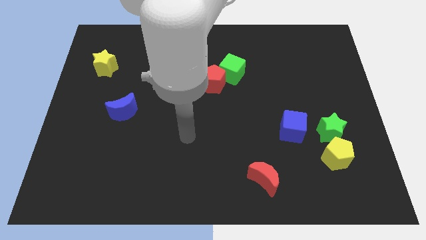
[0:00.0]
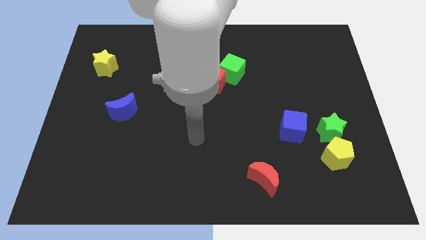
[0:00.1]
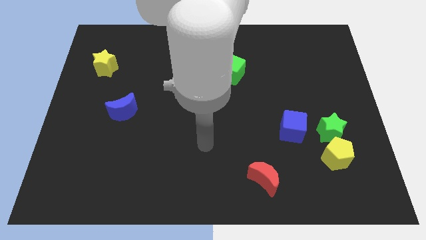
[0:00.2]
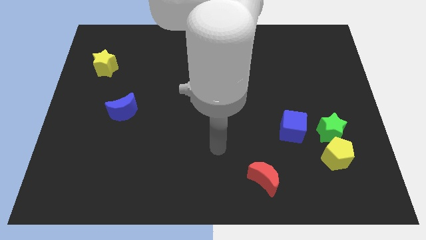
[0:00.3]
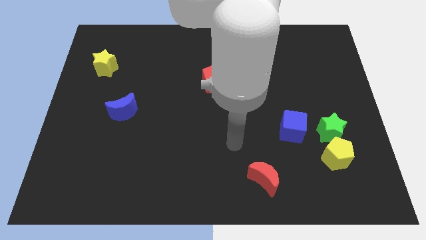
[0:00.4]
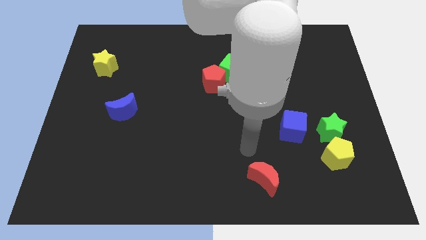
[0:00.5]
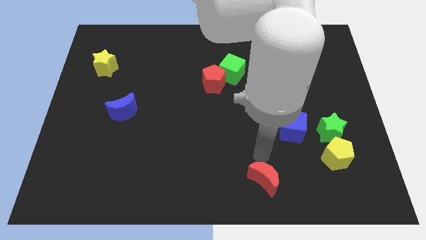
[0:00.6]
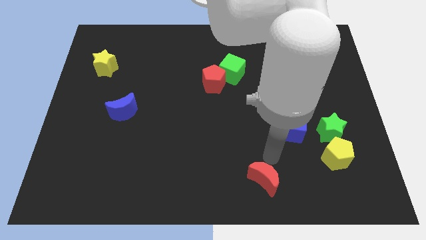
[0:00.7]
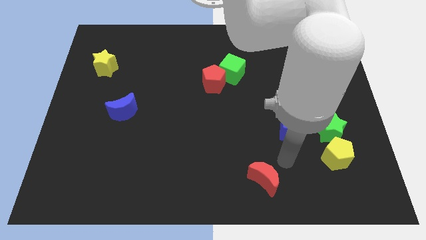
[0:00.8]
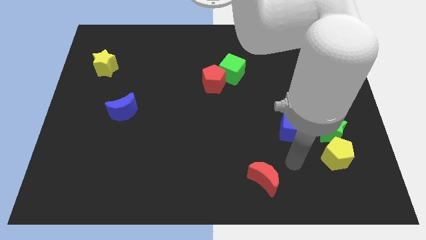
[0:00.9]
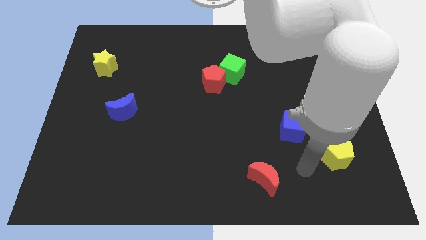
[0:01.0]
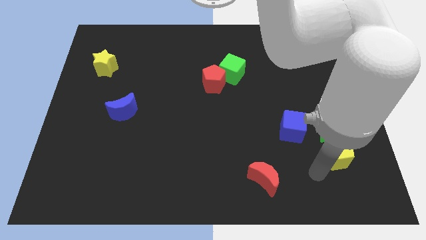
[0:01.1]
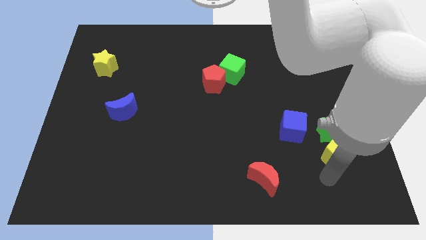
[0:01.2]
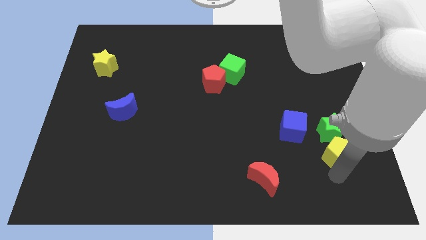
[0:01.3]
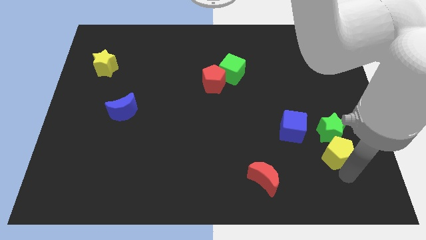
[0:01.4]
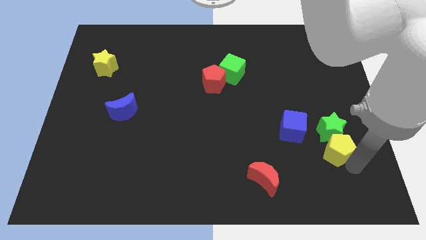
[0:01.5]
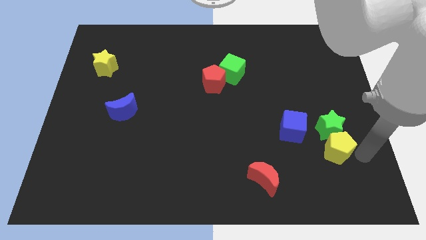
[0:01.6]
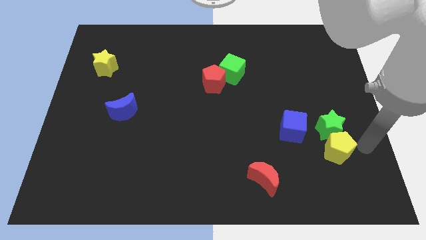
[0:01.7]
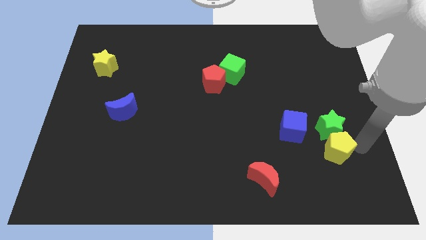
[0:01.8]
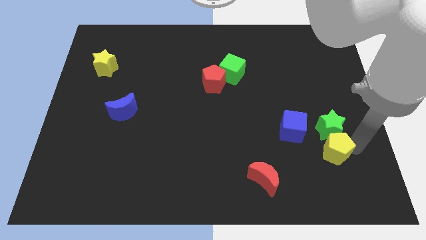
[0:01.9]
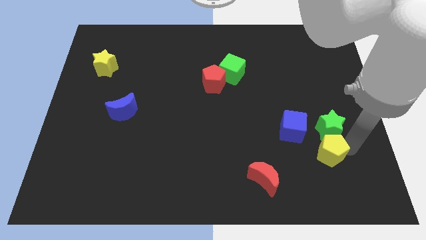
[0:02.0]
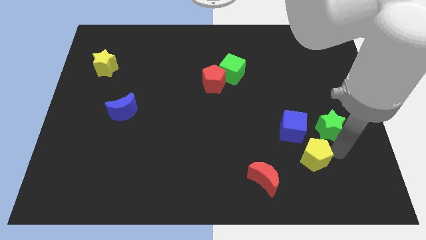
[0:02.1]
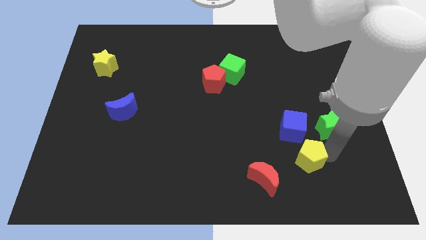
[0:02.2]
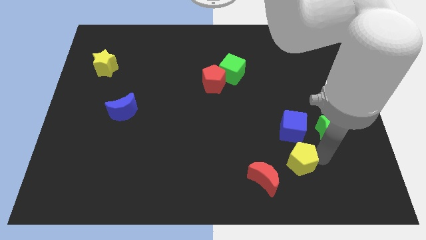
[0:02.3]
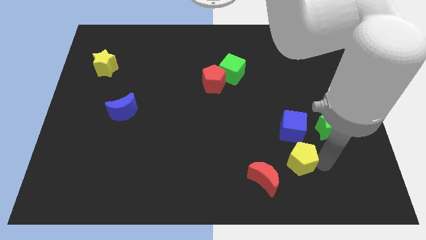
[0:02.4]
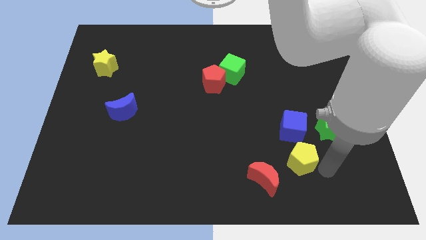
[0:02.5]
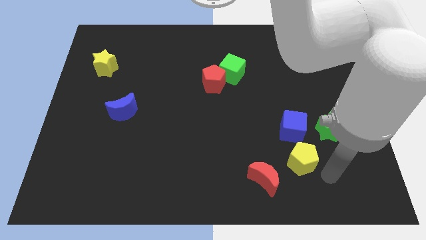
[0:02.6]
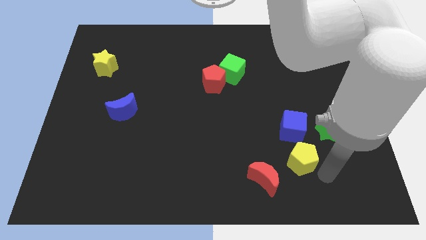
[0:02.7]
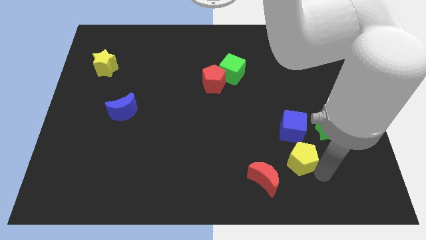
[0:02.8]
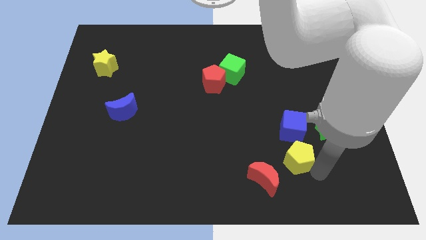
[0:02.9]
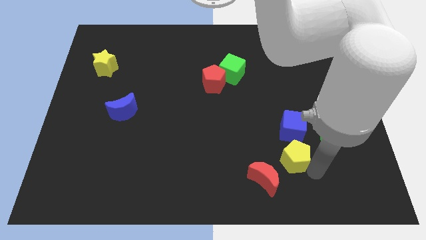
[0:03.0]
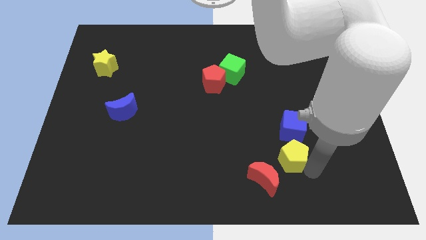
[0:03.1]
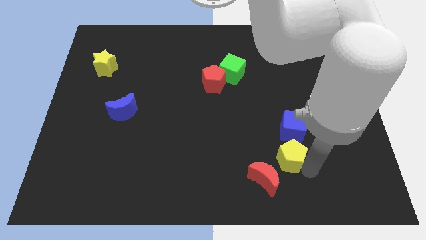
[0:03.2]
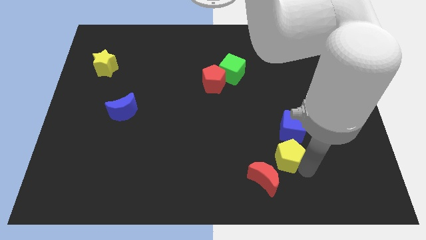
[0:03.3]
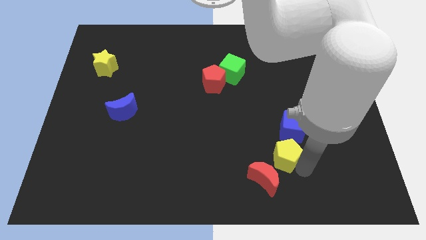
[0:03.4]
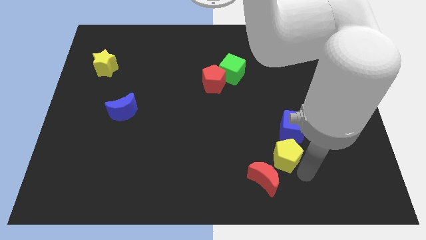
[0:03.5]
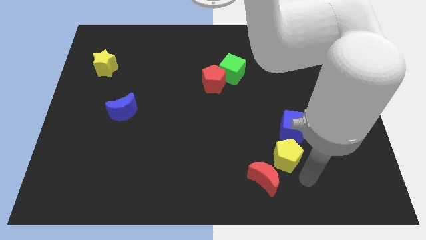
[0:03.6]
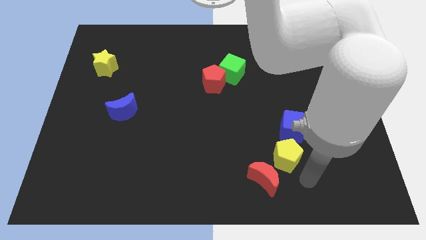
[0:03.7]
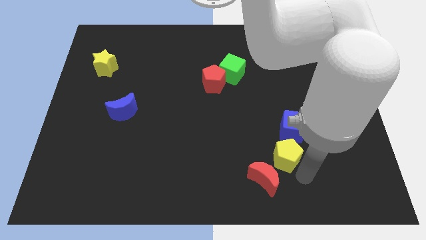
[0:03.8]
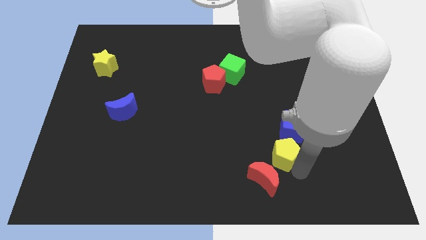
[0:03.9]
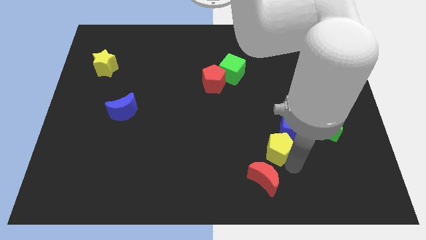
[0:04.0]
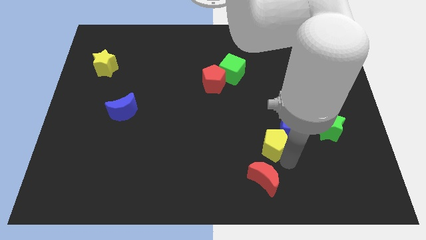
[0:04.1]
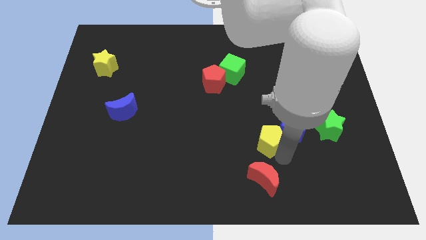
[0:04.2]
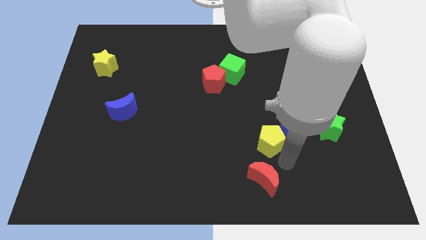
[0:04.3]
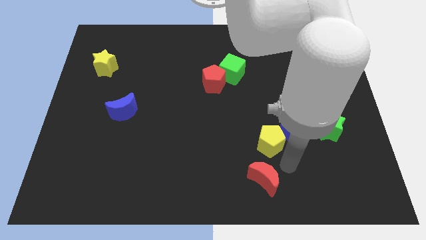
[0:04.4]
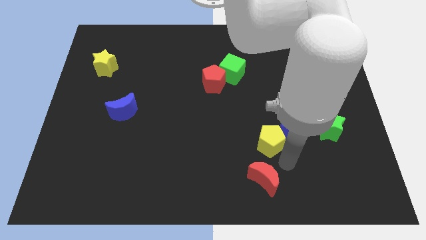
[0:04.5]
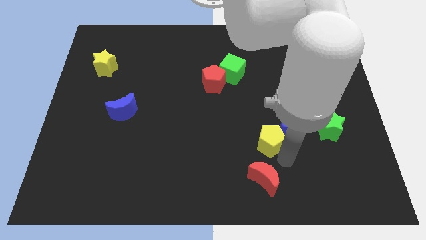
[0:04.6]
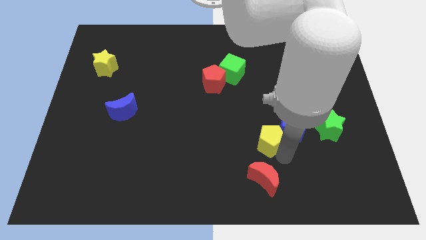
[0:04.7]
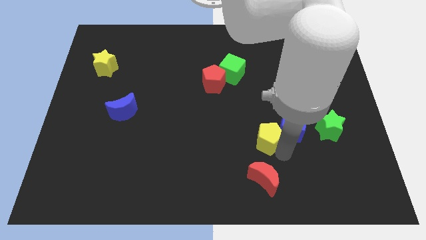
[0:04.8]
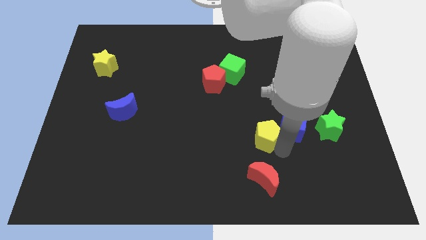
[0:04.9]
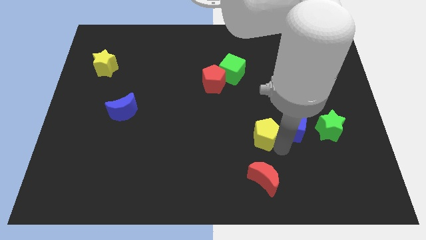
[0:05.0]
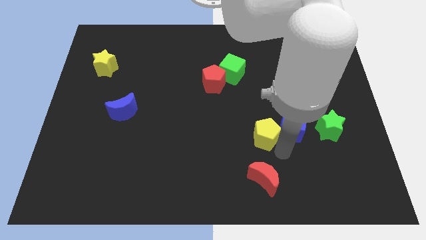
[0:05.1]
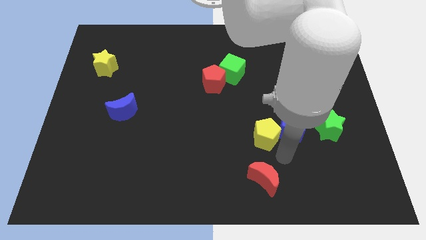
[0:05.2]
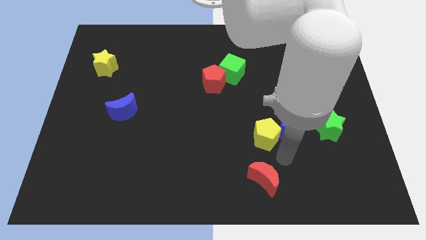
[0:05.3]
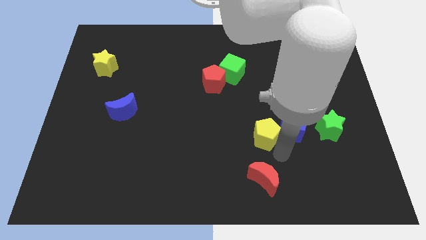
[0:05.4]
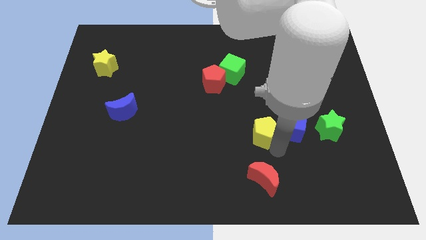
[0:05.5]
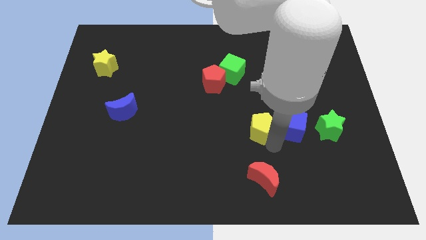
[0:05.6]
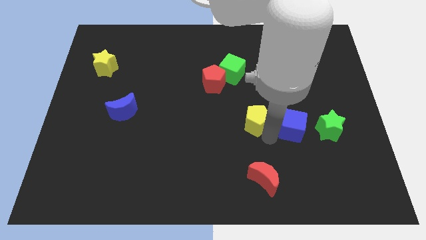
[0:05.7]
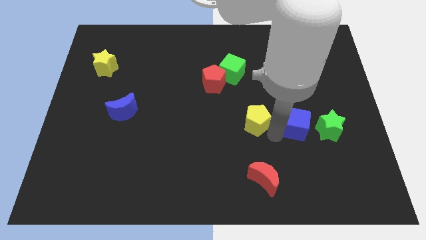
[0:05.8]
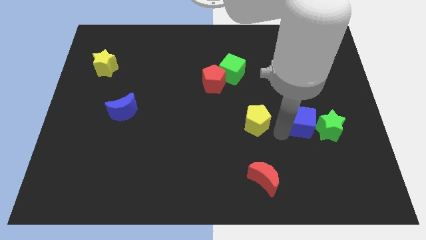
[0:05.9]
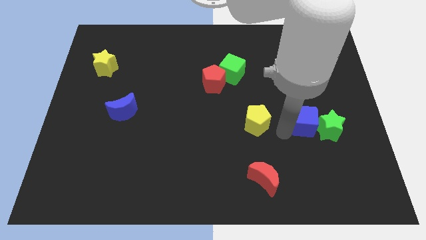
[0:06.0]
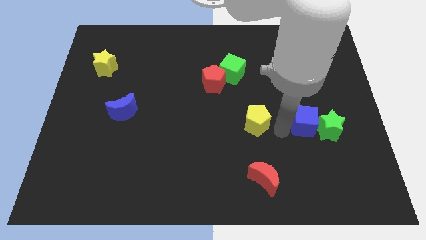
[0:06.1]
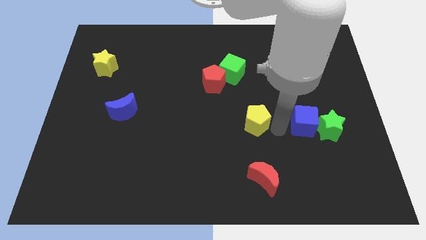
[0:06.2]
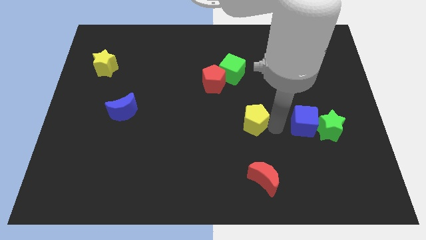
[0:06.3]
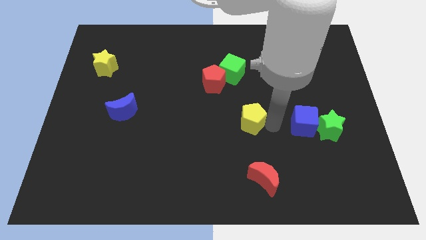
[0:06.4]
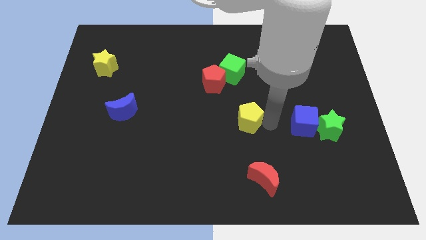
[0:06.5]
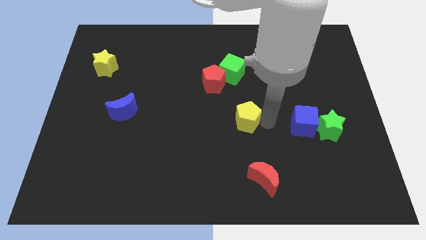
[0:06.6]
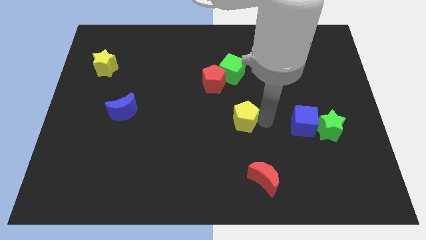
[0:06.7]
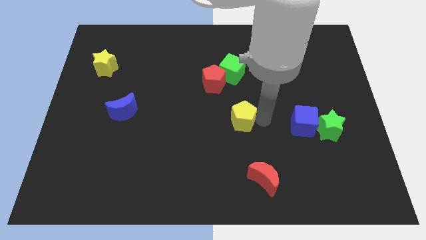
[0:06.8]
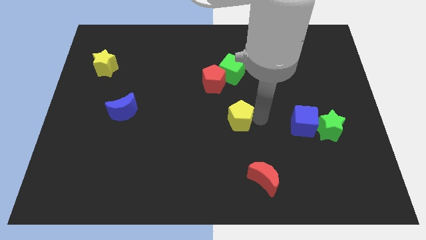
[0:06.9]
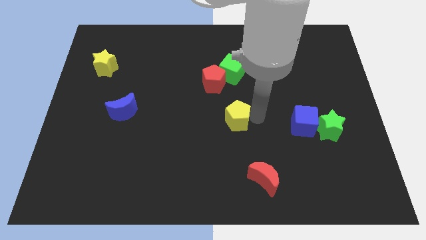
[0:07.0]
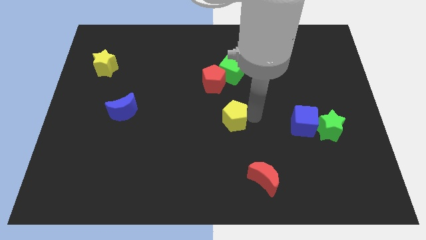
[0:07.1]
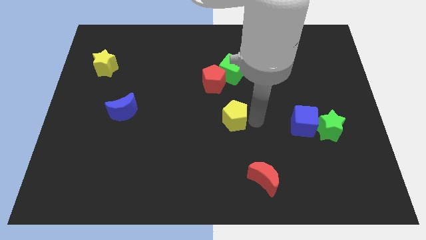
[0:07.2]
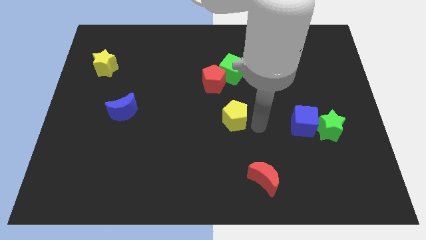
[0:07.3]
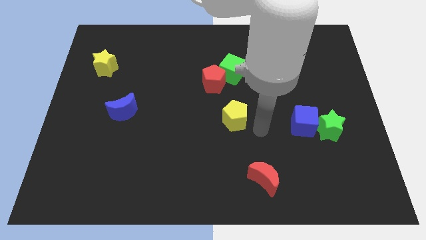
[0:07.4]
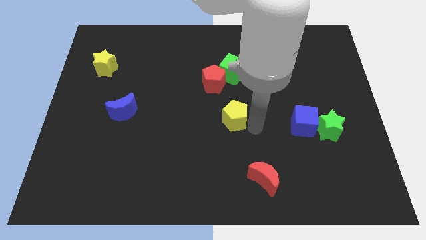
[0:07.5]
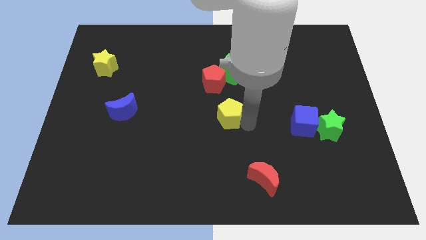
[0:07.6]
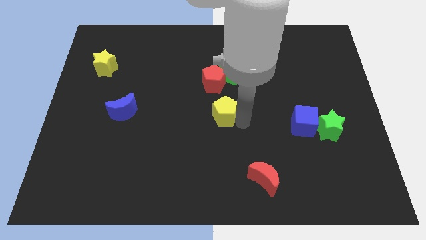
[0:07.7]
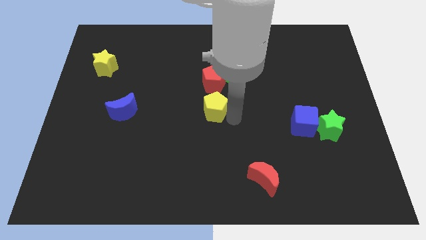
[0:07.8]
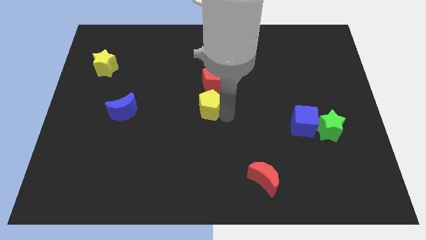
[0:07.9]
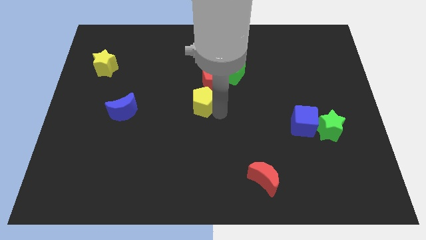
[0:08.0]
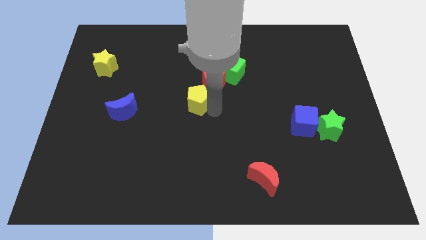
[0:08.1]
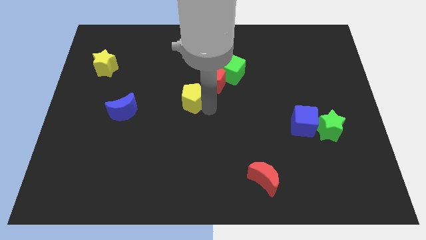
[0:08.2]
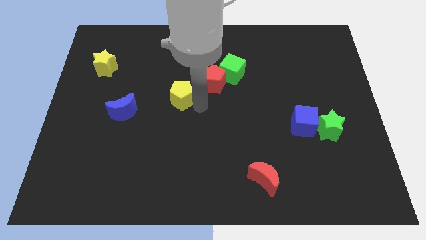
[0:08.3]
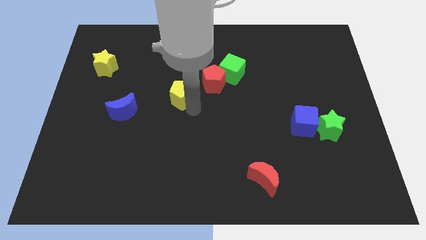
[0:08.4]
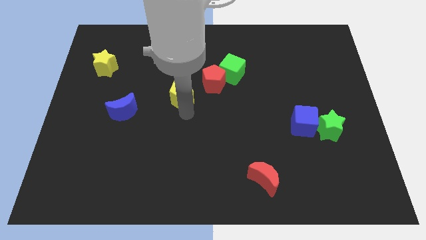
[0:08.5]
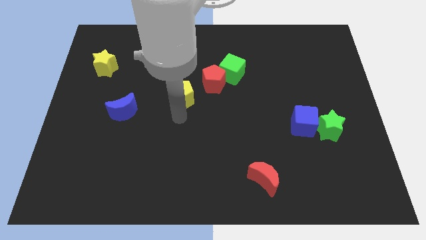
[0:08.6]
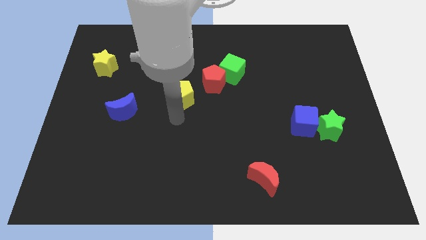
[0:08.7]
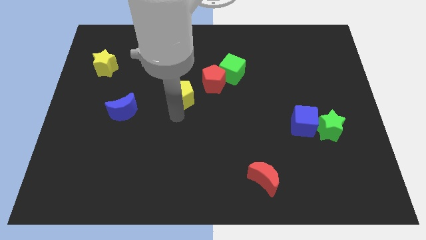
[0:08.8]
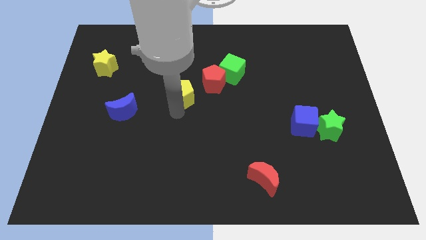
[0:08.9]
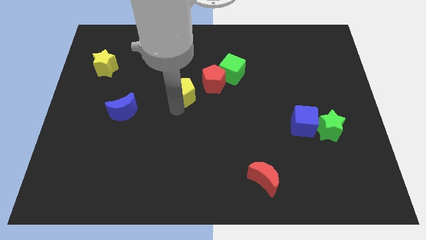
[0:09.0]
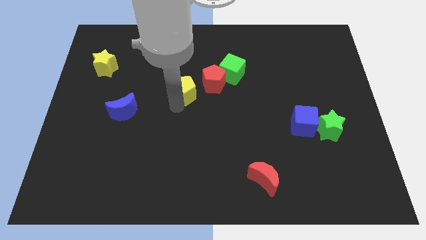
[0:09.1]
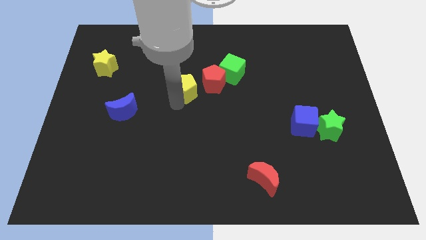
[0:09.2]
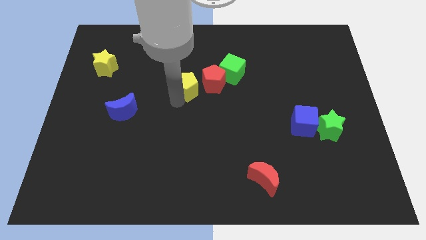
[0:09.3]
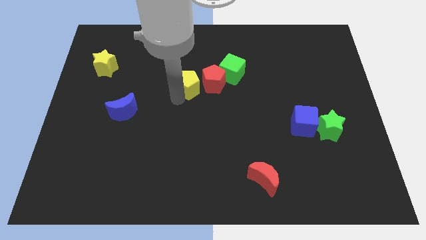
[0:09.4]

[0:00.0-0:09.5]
put the yellow pentagon to the left side of the green cube
